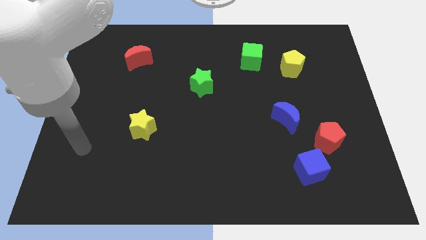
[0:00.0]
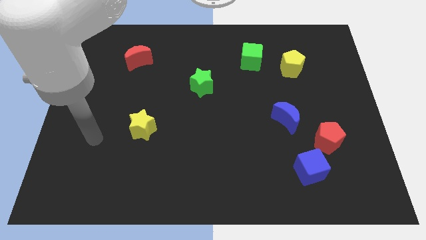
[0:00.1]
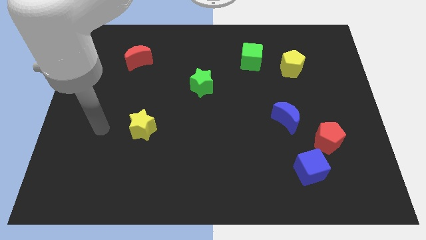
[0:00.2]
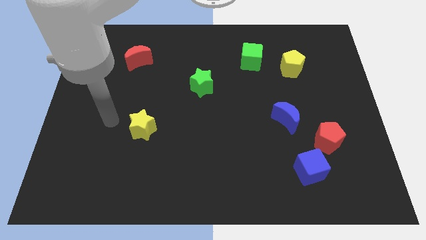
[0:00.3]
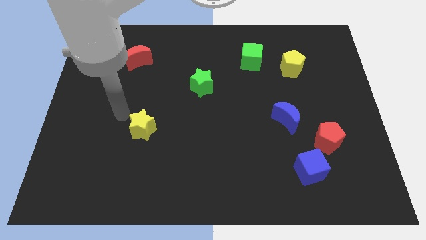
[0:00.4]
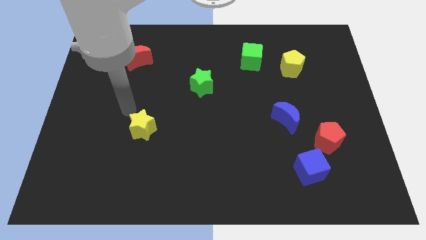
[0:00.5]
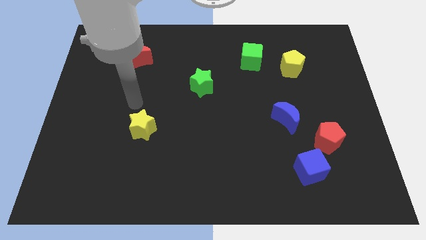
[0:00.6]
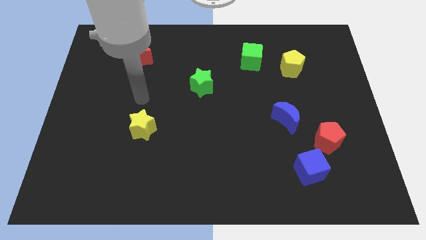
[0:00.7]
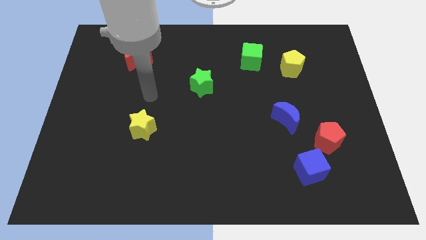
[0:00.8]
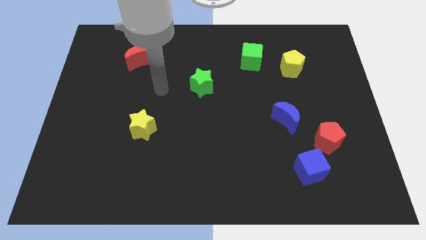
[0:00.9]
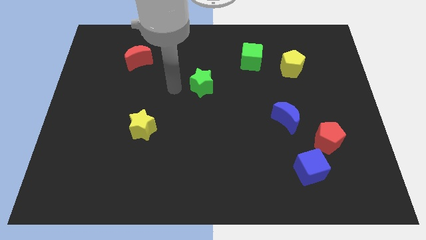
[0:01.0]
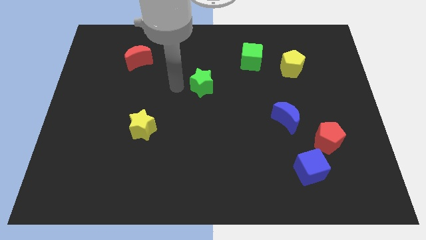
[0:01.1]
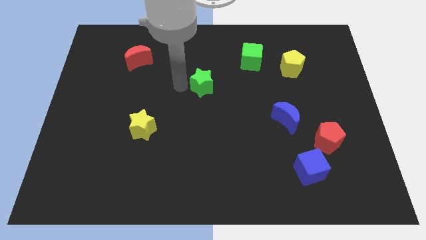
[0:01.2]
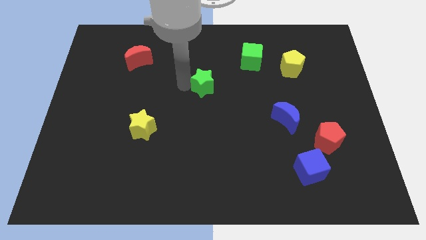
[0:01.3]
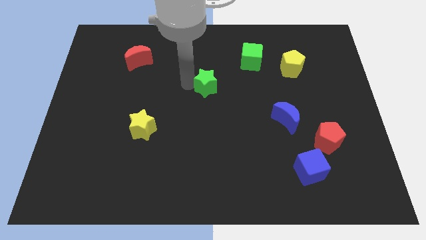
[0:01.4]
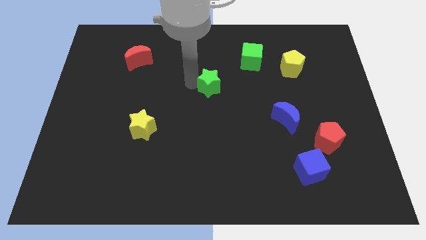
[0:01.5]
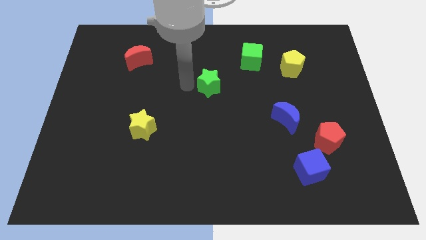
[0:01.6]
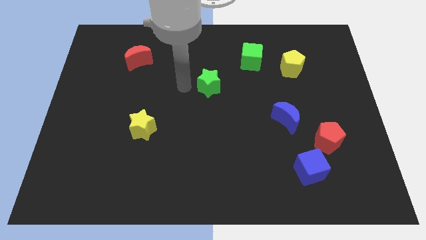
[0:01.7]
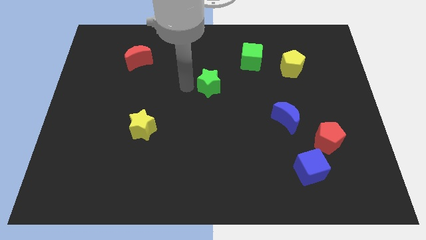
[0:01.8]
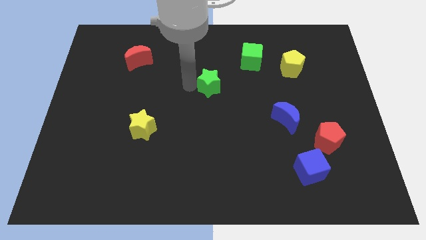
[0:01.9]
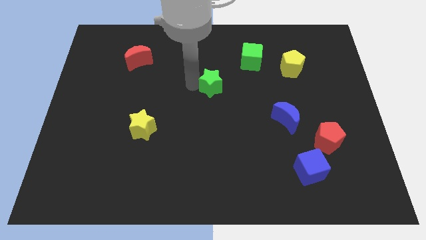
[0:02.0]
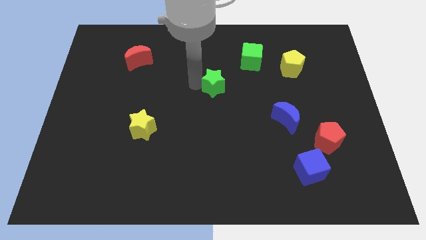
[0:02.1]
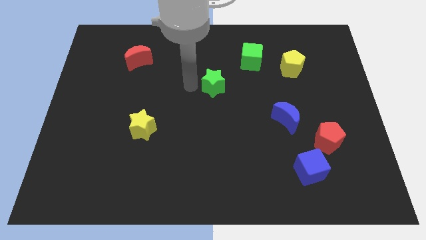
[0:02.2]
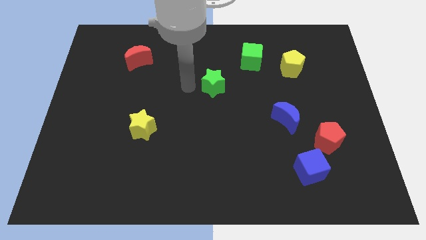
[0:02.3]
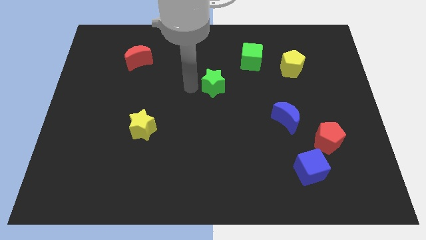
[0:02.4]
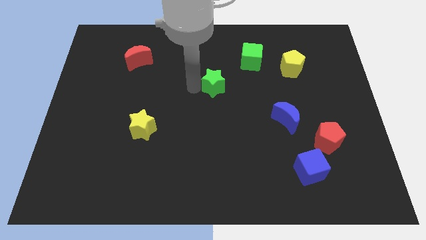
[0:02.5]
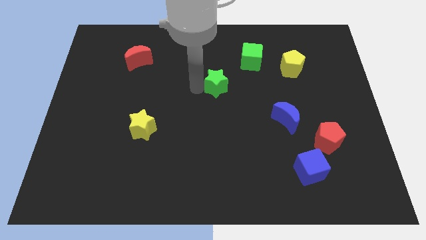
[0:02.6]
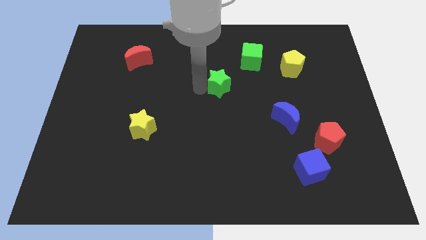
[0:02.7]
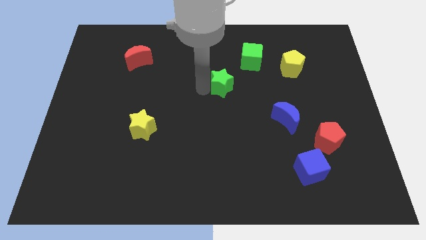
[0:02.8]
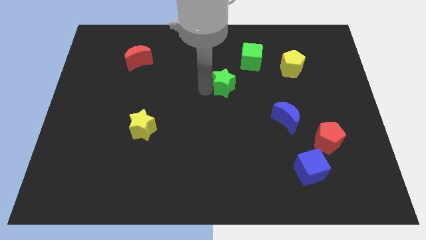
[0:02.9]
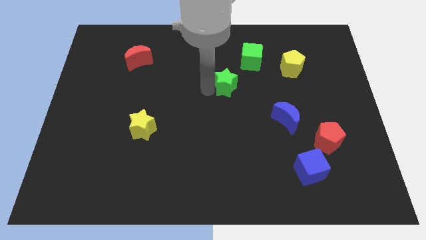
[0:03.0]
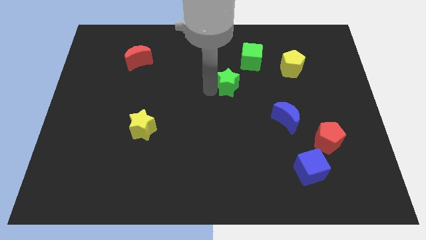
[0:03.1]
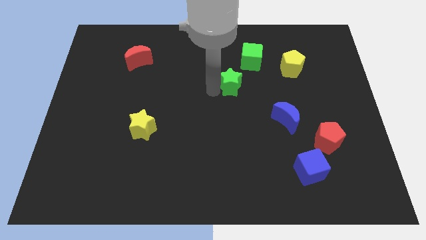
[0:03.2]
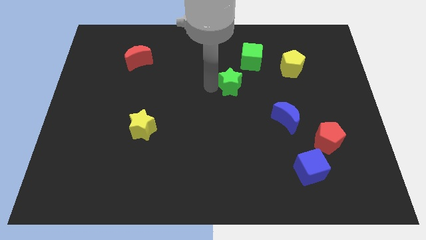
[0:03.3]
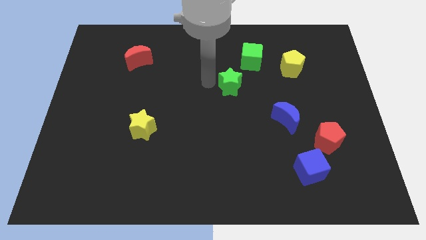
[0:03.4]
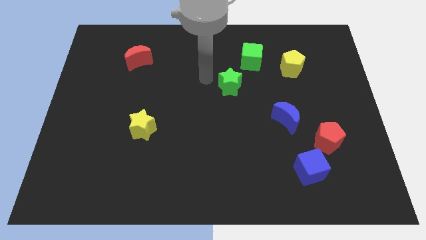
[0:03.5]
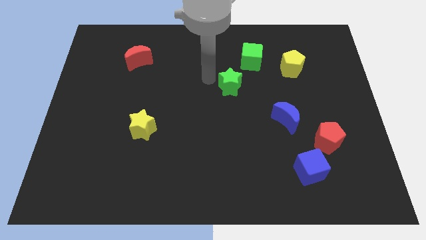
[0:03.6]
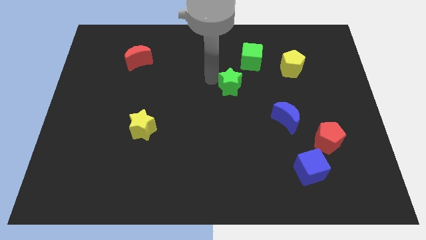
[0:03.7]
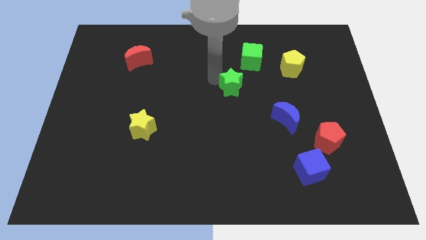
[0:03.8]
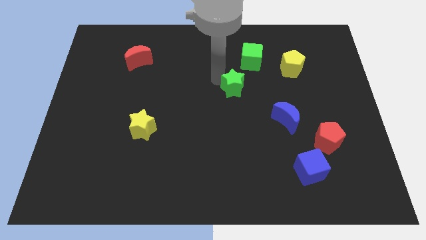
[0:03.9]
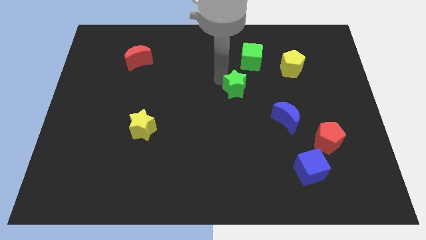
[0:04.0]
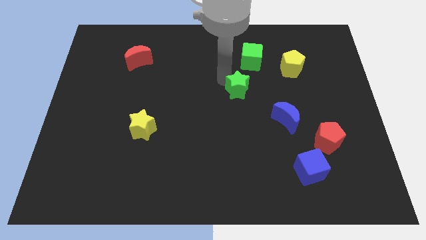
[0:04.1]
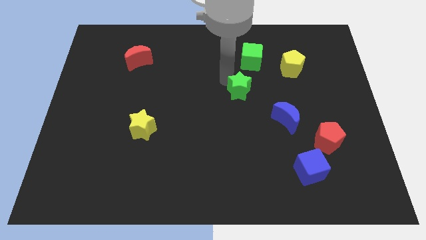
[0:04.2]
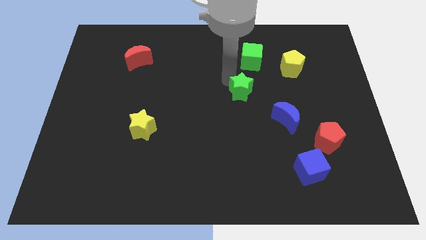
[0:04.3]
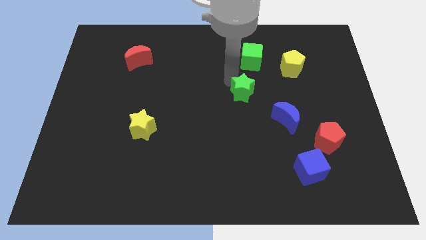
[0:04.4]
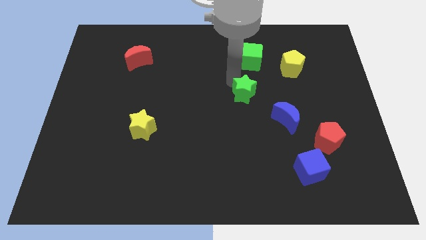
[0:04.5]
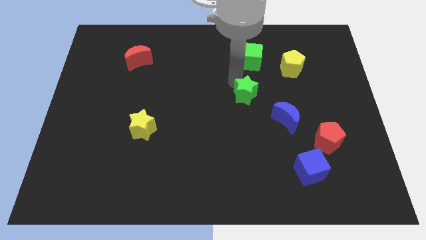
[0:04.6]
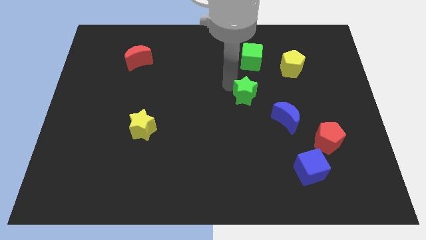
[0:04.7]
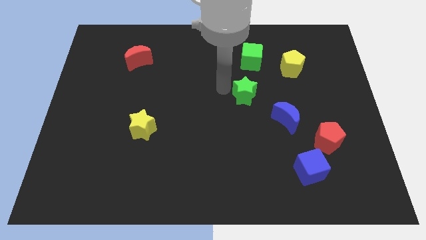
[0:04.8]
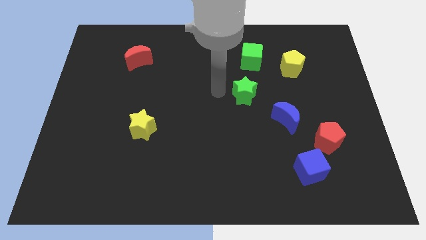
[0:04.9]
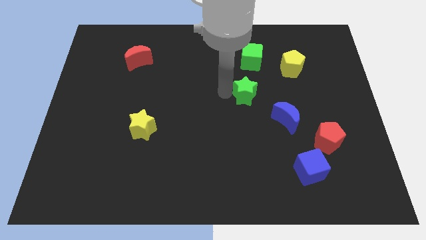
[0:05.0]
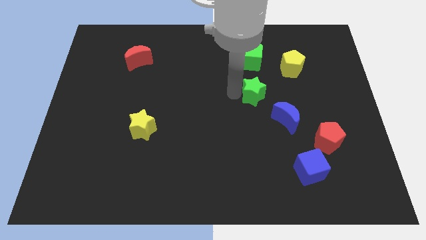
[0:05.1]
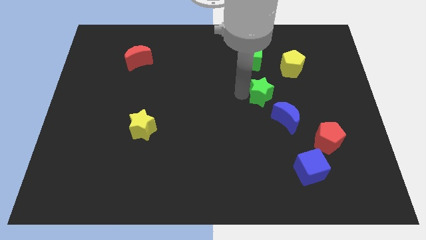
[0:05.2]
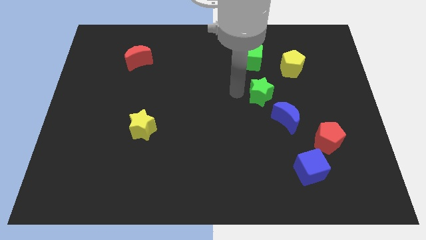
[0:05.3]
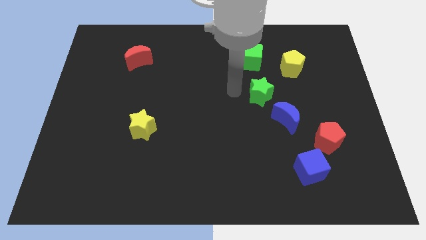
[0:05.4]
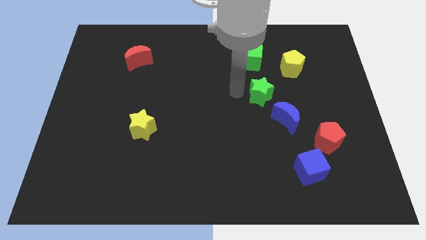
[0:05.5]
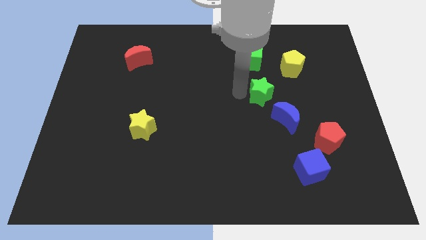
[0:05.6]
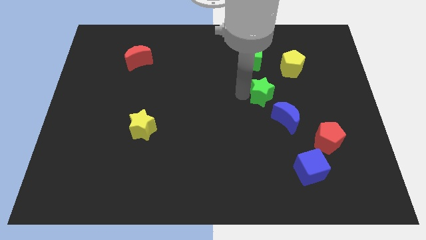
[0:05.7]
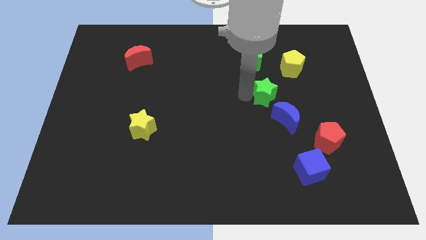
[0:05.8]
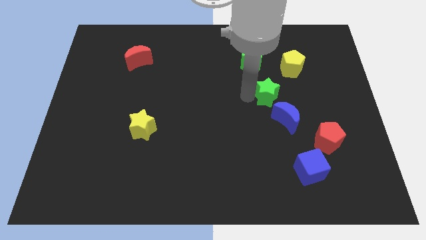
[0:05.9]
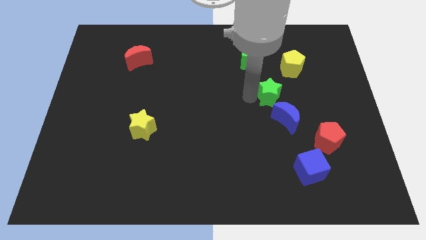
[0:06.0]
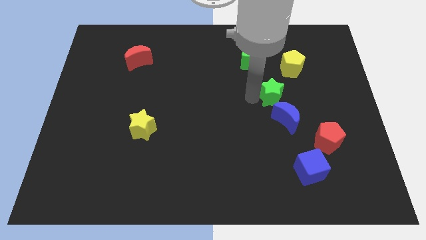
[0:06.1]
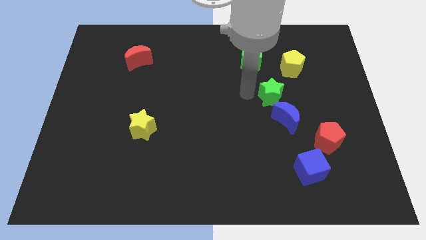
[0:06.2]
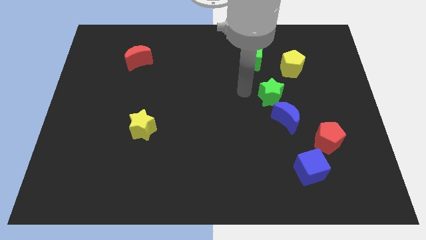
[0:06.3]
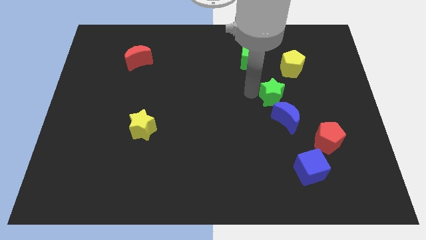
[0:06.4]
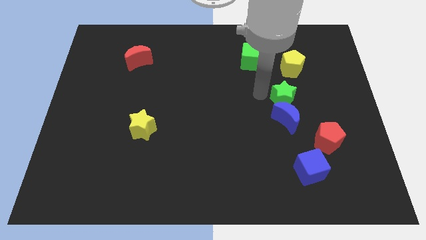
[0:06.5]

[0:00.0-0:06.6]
move the green star to the top right of the blue moon
